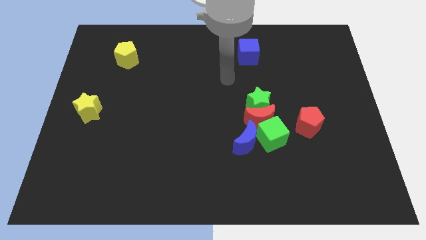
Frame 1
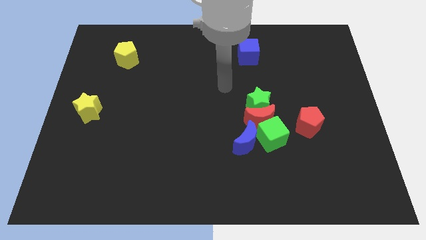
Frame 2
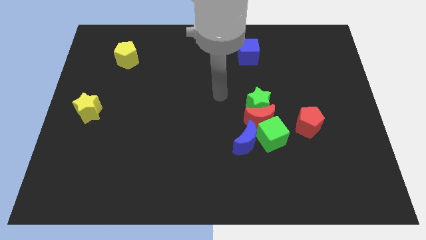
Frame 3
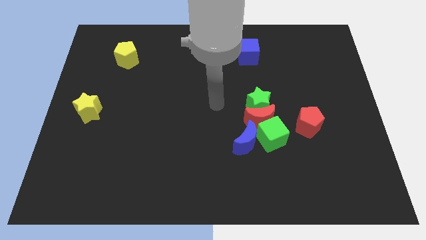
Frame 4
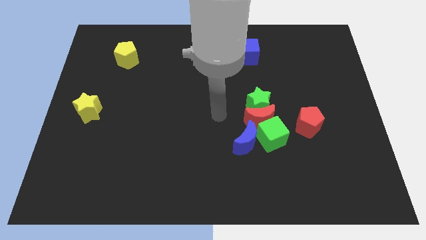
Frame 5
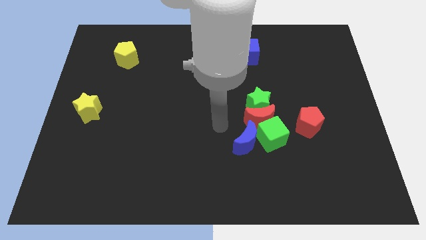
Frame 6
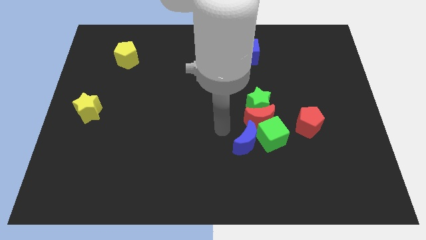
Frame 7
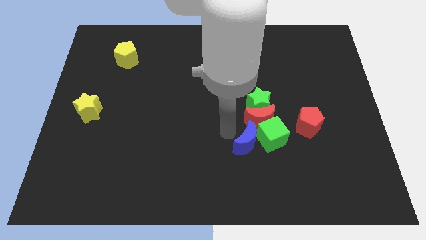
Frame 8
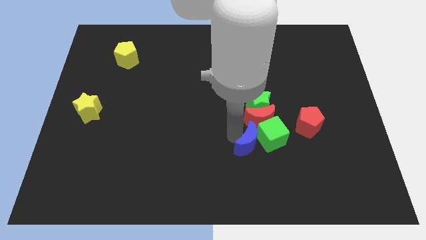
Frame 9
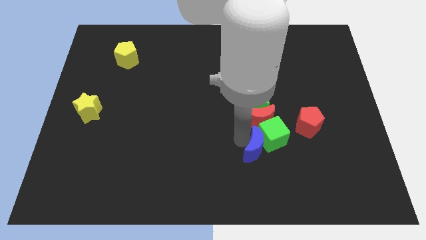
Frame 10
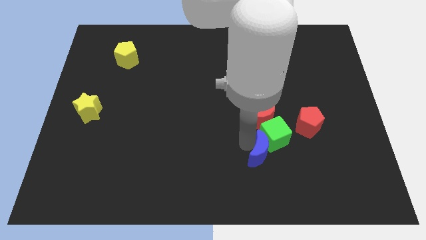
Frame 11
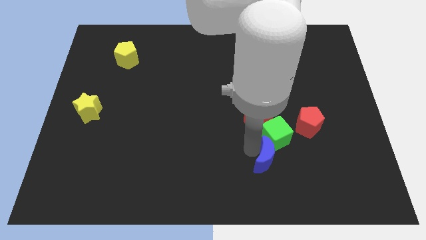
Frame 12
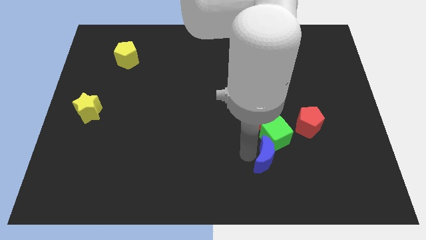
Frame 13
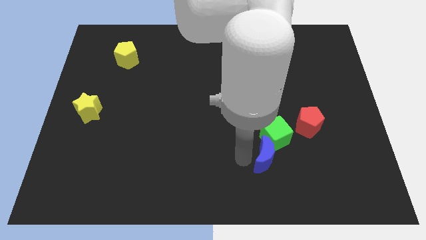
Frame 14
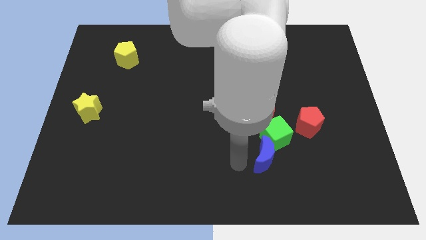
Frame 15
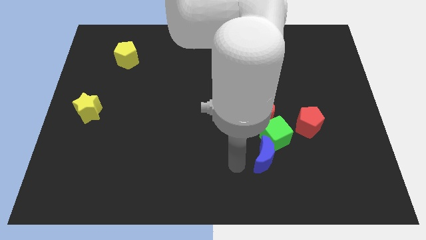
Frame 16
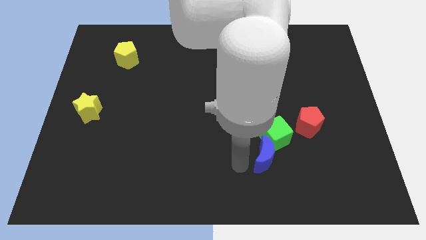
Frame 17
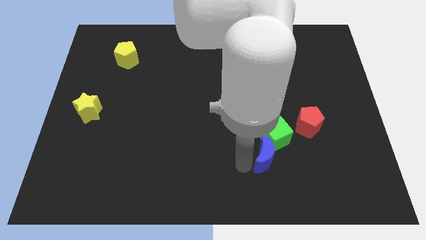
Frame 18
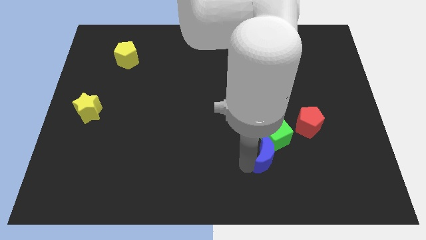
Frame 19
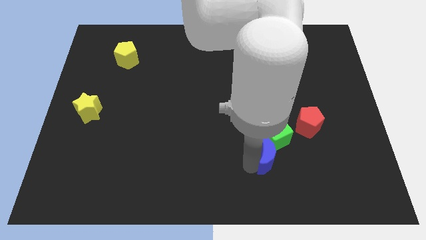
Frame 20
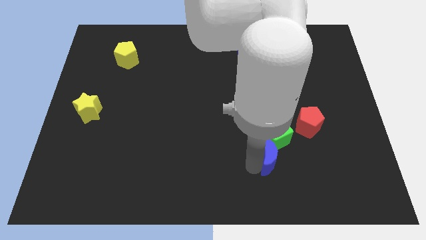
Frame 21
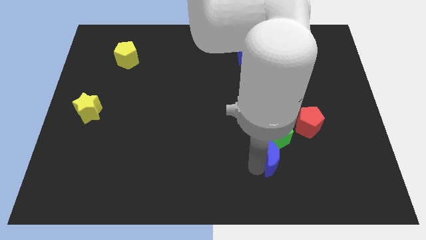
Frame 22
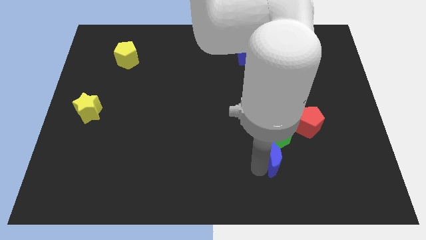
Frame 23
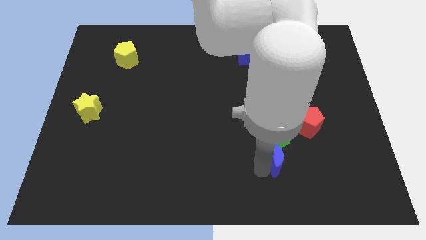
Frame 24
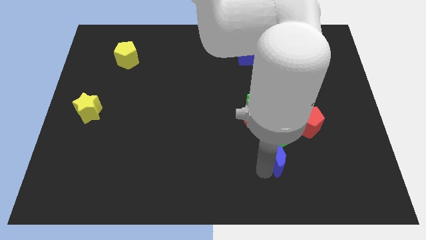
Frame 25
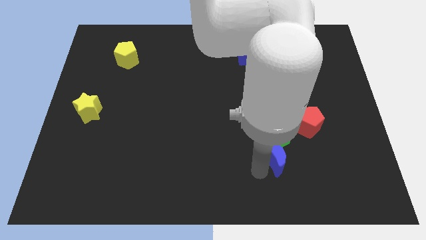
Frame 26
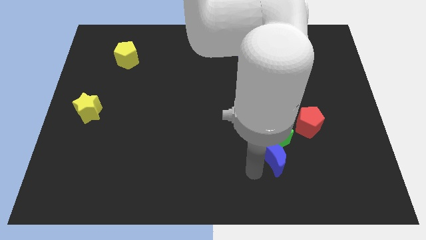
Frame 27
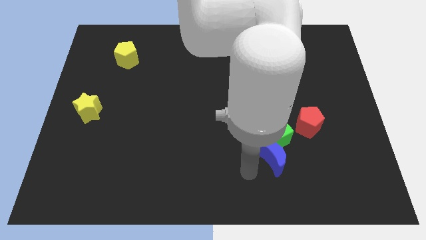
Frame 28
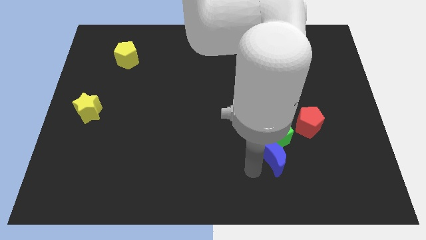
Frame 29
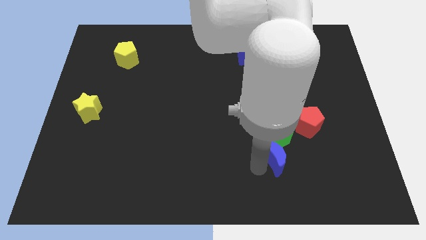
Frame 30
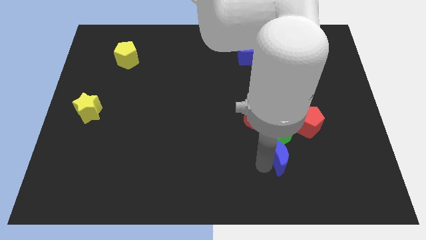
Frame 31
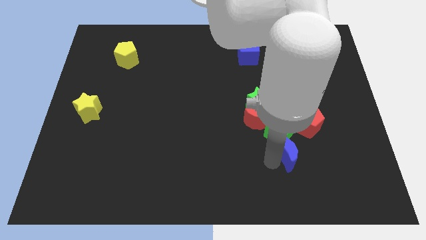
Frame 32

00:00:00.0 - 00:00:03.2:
push the blue moon right slightly

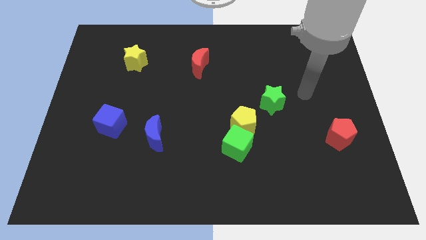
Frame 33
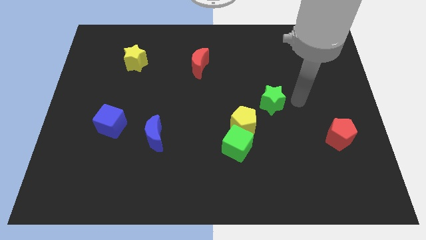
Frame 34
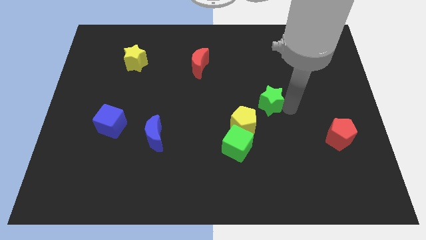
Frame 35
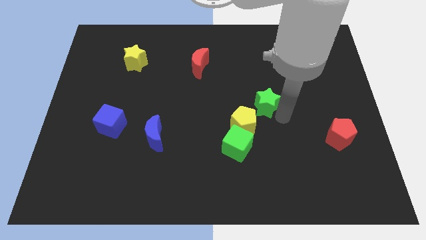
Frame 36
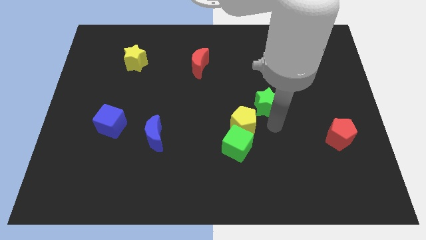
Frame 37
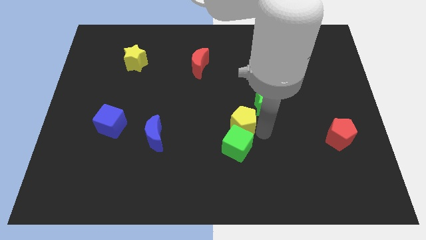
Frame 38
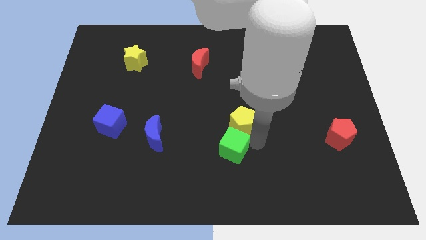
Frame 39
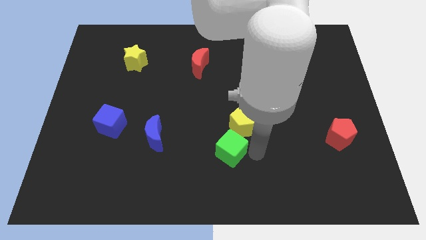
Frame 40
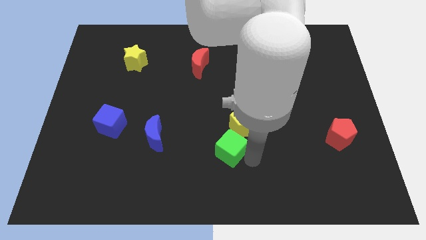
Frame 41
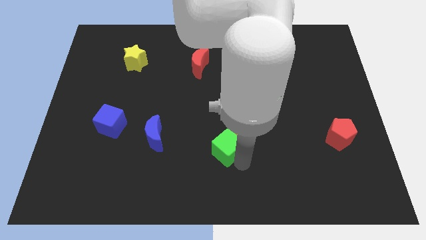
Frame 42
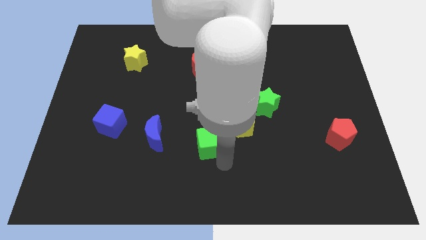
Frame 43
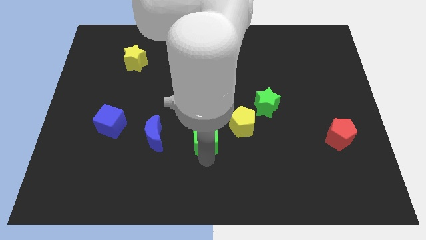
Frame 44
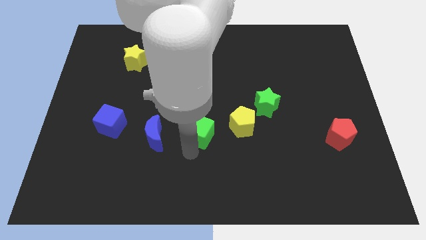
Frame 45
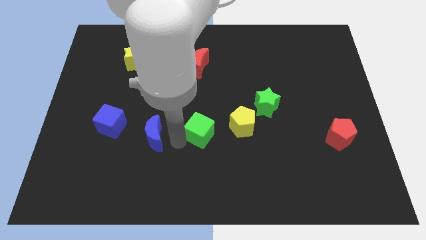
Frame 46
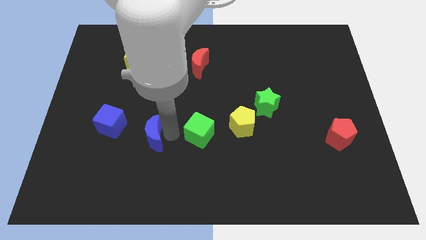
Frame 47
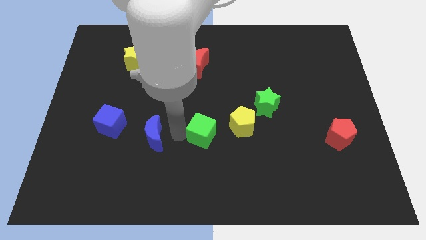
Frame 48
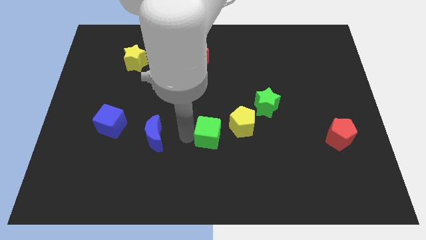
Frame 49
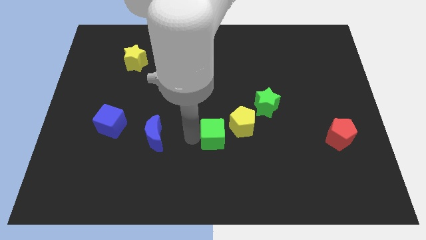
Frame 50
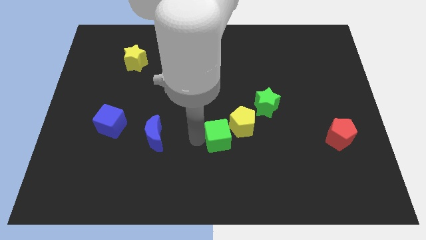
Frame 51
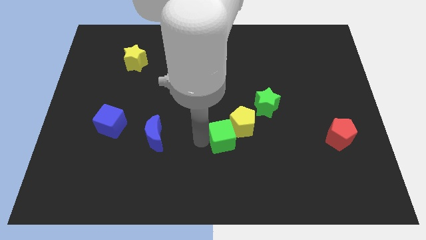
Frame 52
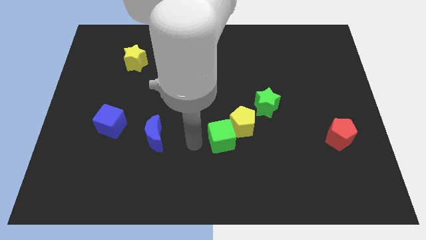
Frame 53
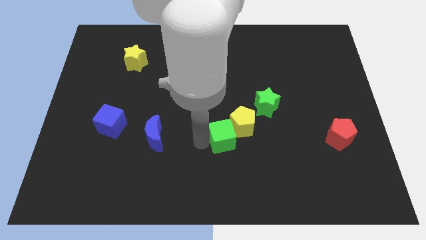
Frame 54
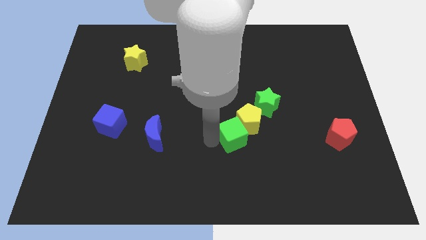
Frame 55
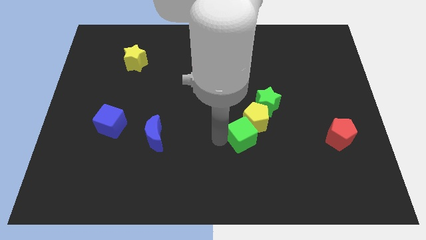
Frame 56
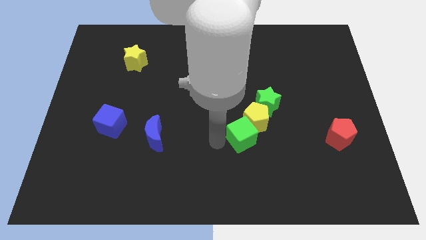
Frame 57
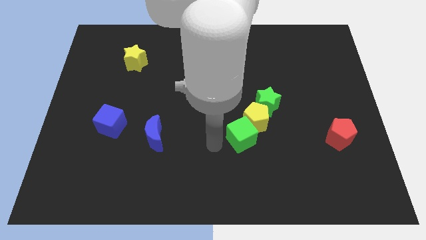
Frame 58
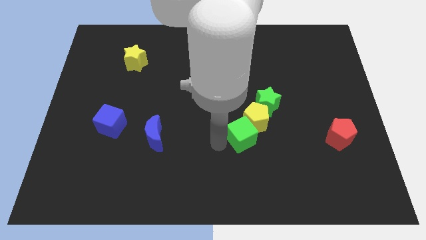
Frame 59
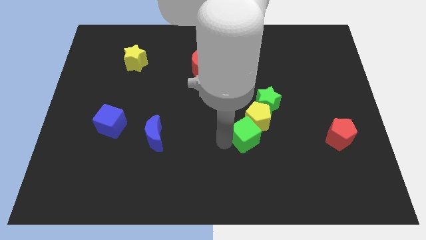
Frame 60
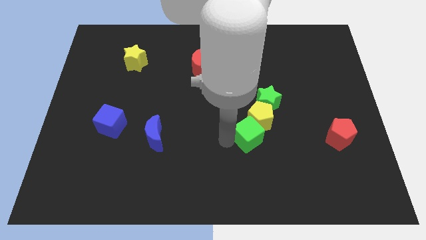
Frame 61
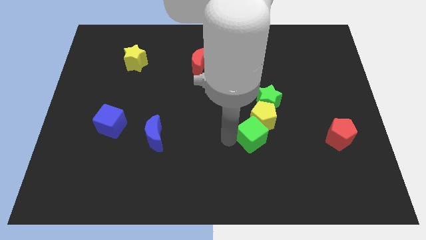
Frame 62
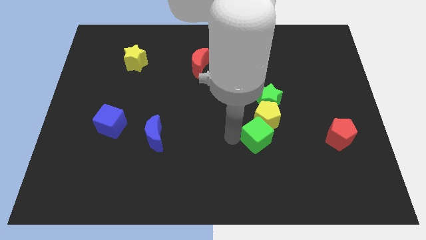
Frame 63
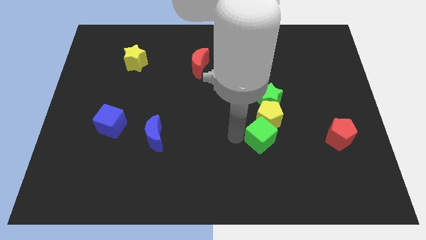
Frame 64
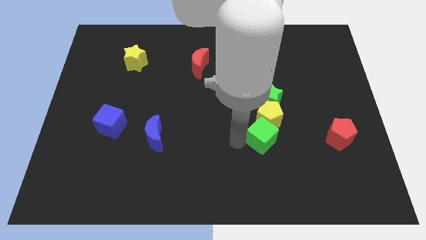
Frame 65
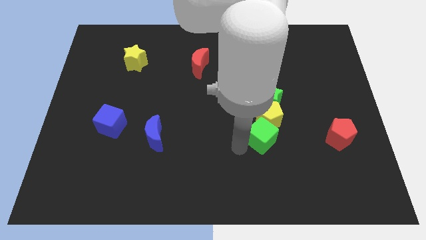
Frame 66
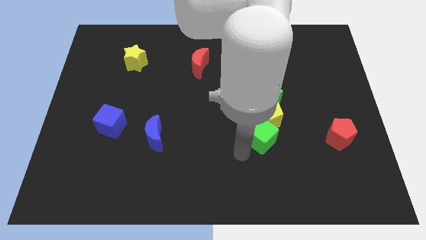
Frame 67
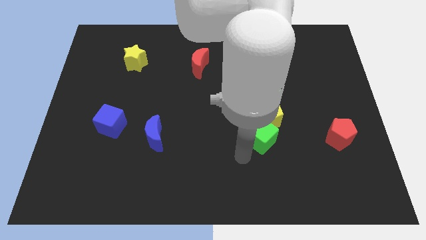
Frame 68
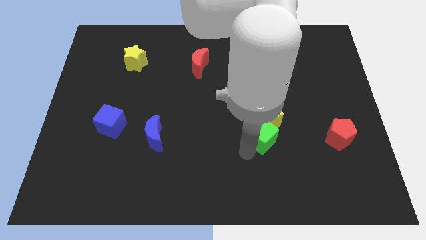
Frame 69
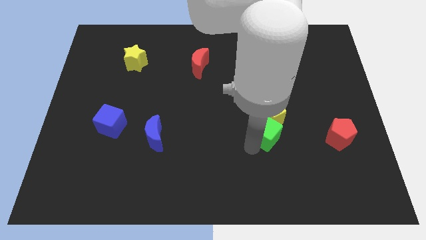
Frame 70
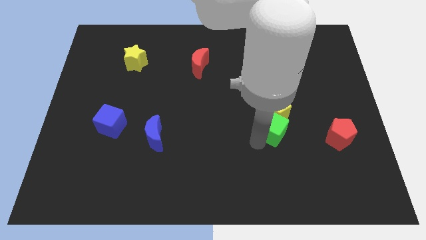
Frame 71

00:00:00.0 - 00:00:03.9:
slightly slide the green cube diagonally upwards and to the right

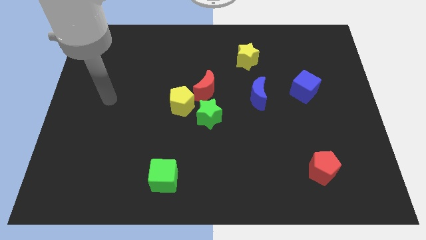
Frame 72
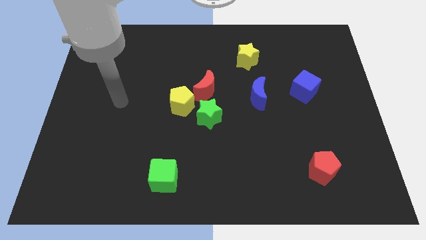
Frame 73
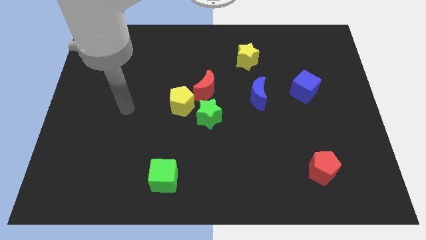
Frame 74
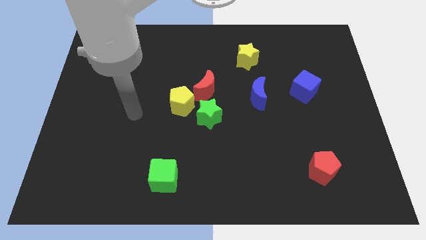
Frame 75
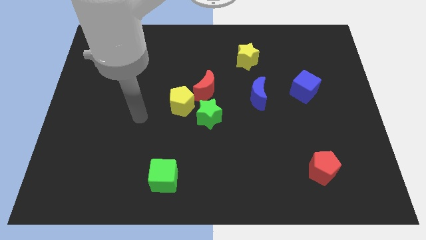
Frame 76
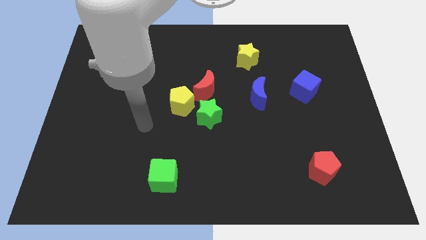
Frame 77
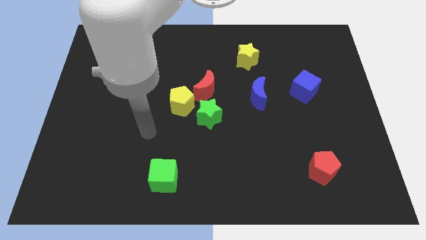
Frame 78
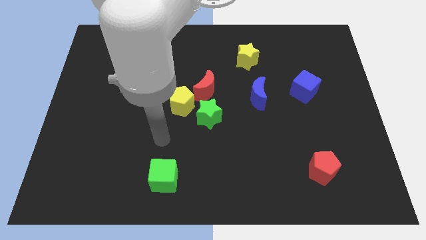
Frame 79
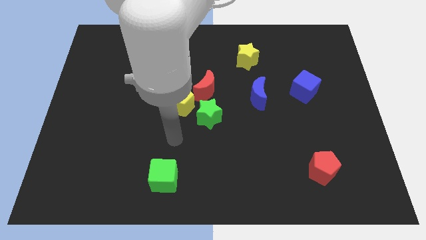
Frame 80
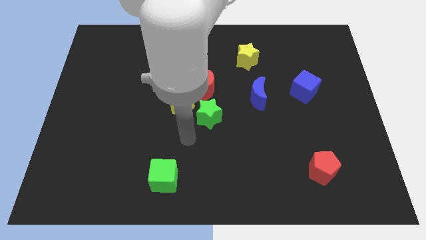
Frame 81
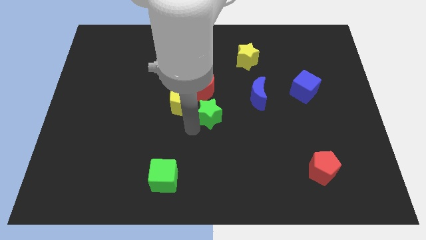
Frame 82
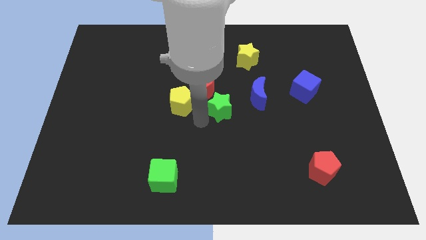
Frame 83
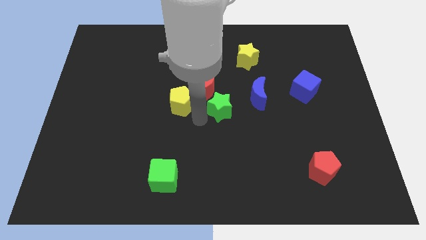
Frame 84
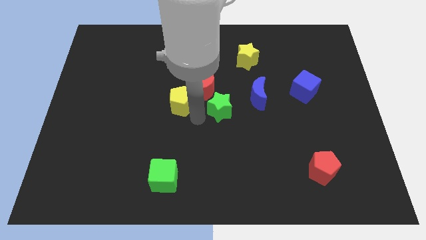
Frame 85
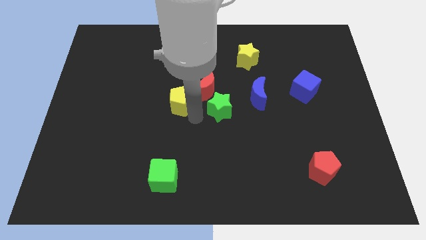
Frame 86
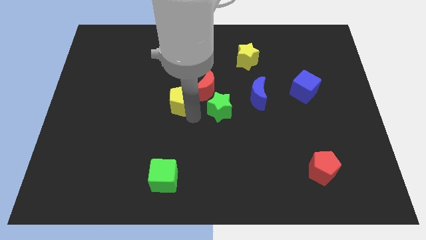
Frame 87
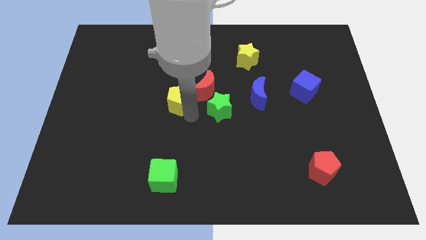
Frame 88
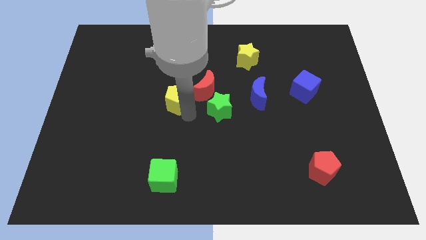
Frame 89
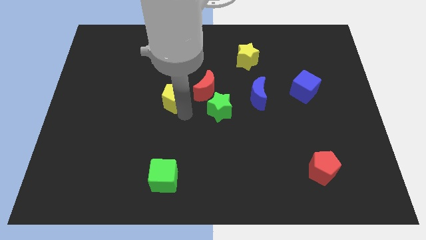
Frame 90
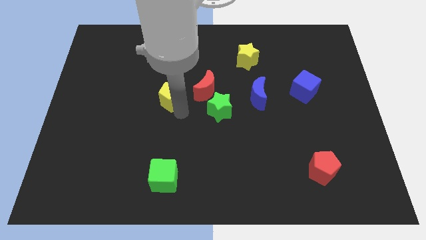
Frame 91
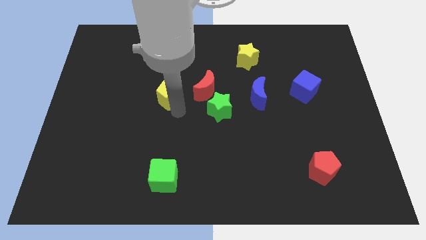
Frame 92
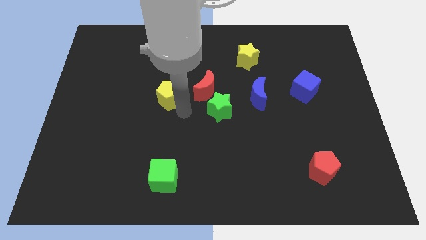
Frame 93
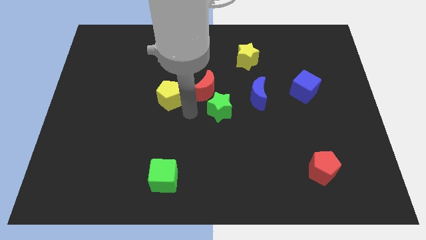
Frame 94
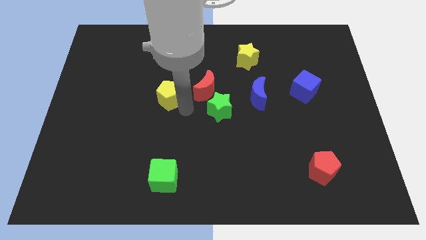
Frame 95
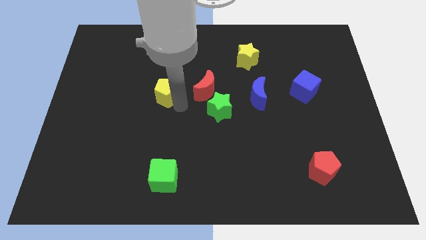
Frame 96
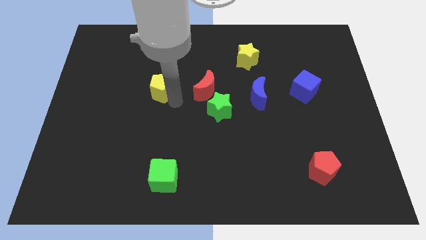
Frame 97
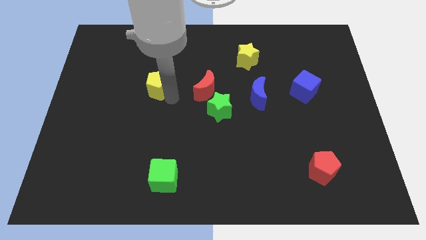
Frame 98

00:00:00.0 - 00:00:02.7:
slightly slide the yellow pentagon upwards and to the left
